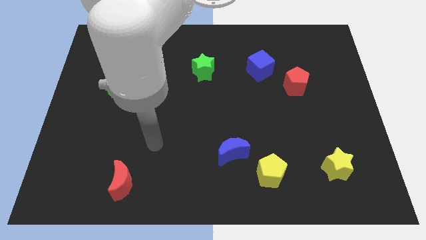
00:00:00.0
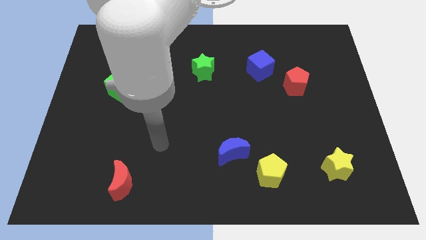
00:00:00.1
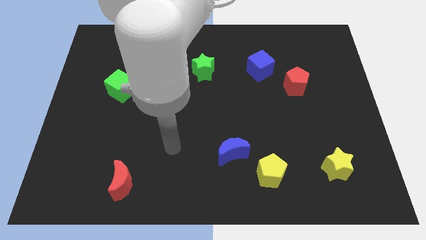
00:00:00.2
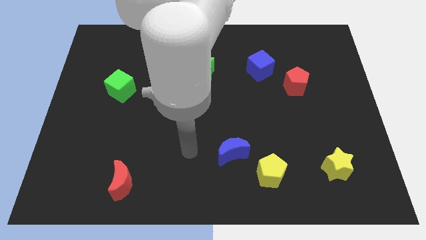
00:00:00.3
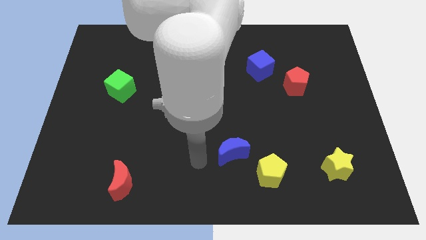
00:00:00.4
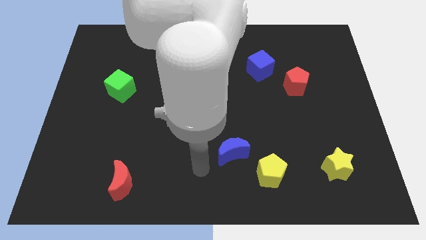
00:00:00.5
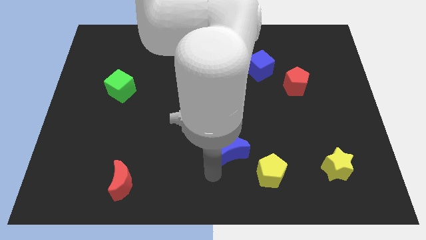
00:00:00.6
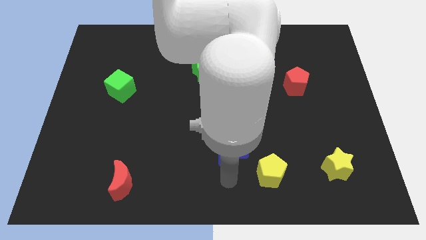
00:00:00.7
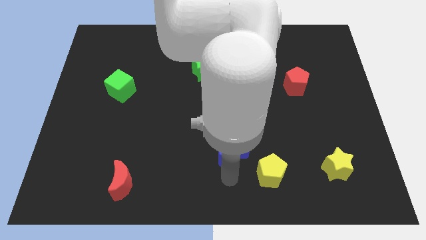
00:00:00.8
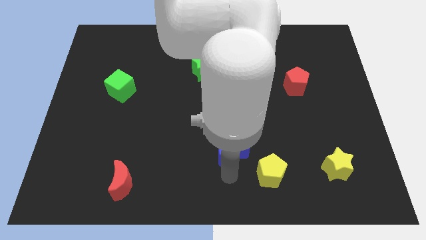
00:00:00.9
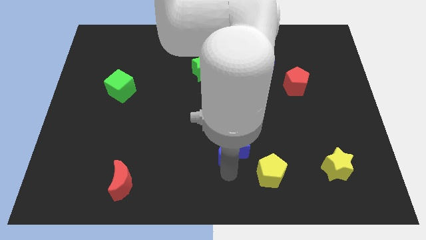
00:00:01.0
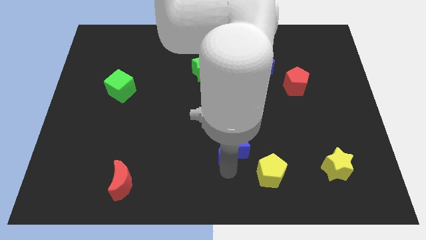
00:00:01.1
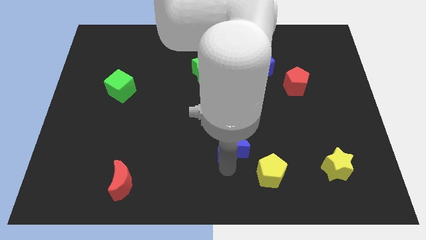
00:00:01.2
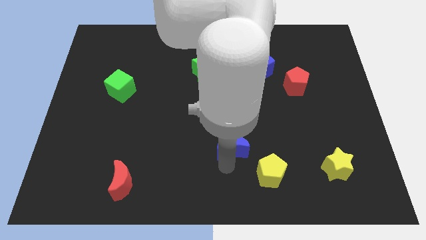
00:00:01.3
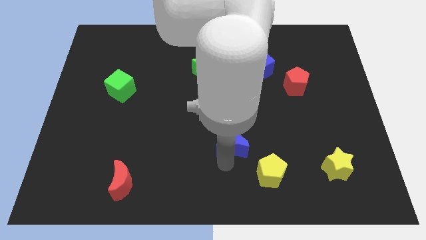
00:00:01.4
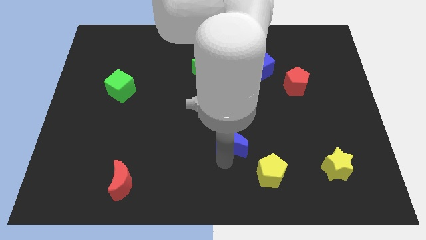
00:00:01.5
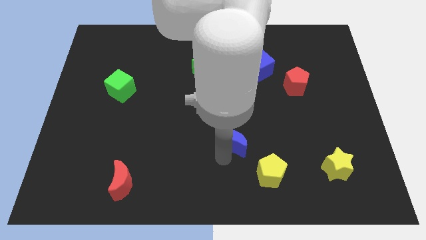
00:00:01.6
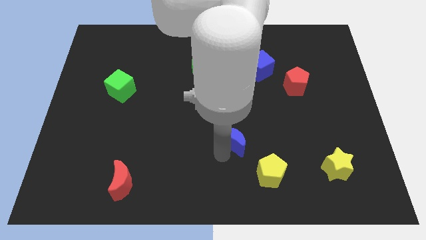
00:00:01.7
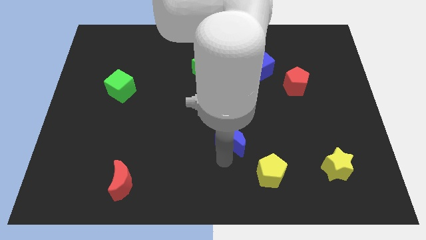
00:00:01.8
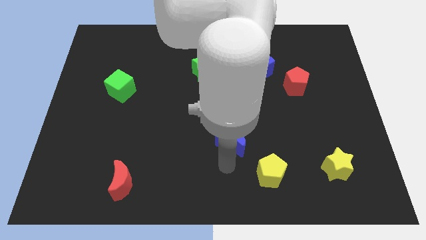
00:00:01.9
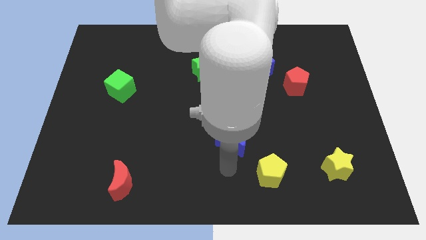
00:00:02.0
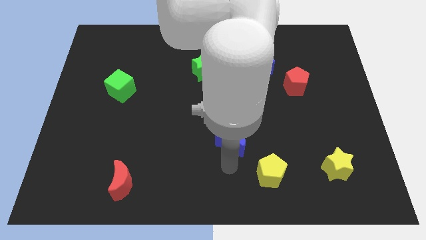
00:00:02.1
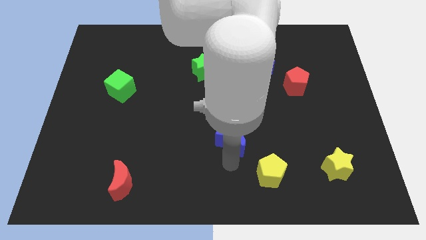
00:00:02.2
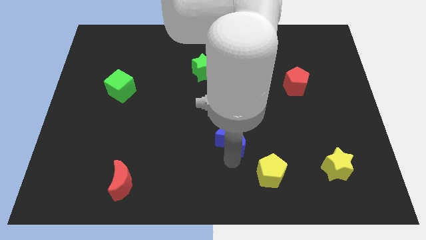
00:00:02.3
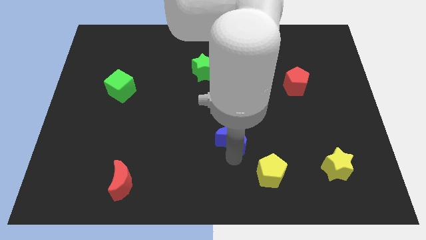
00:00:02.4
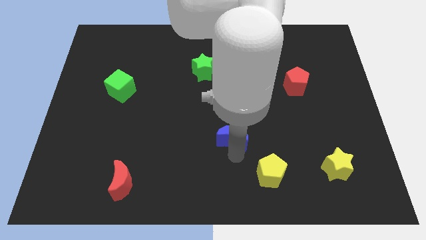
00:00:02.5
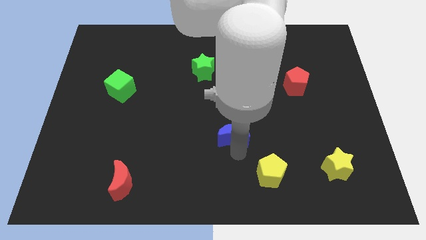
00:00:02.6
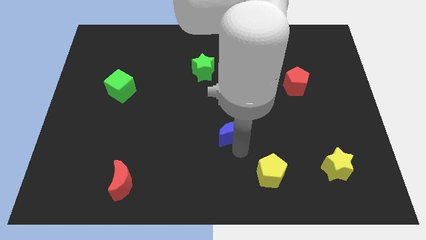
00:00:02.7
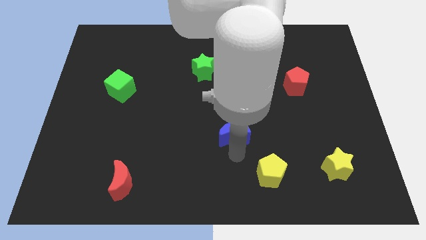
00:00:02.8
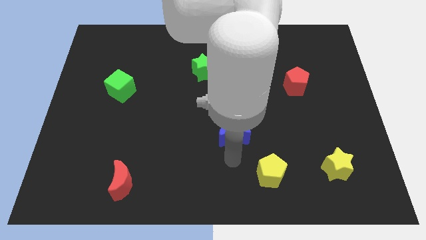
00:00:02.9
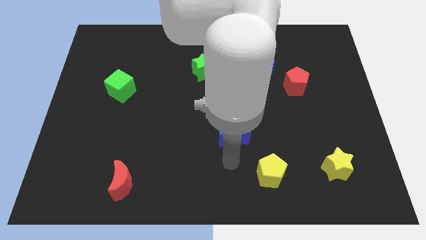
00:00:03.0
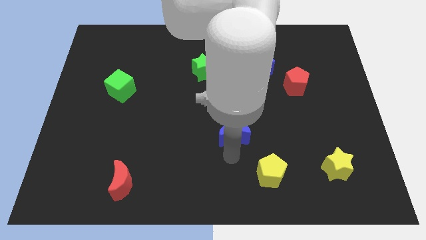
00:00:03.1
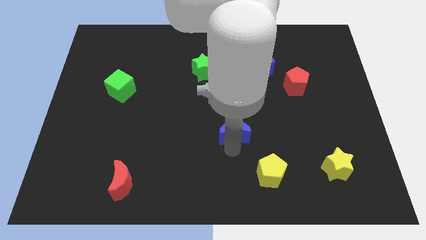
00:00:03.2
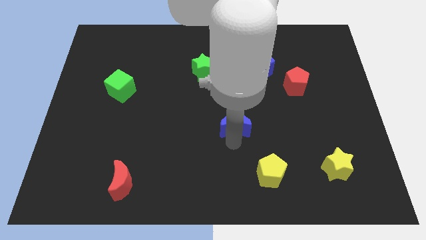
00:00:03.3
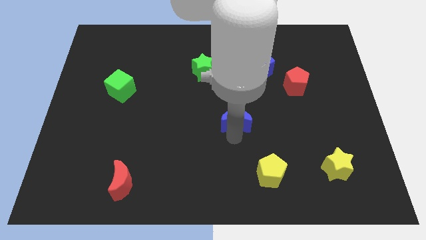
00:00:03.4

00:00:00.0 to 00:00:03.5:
slide the blue moon slightly upwards

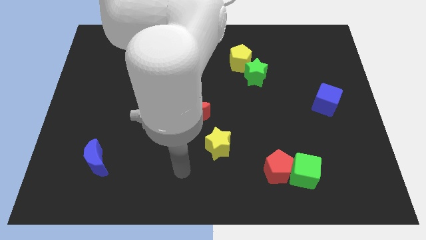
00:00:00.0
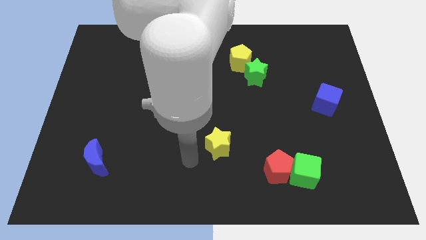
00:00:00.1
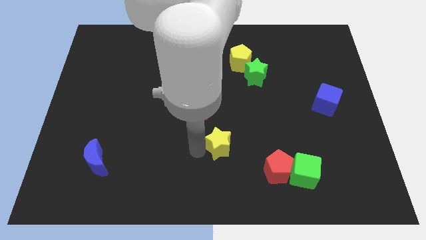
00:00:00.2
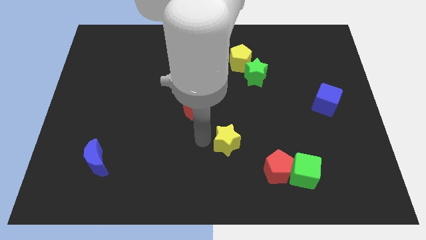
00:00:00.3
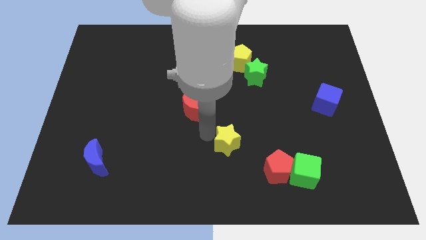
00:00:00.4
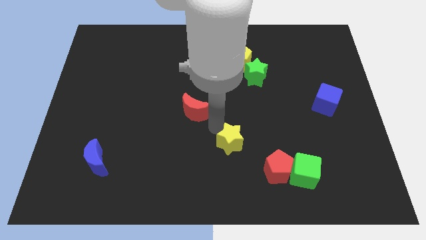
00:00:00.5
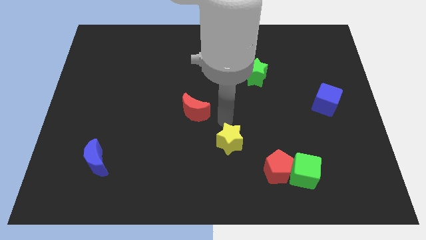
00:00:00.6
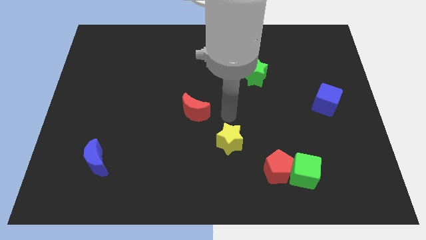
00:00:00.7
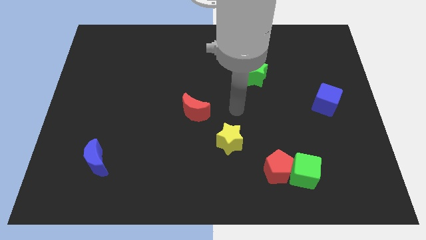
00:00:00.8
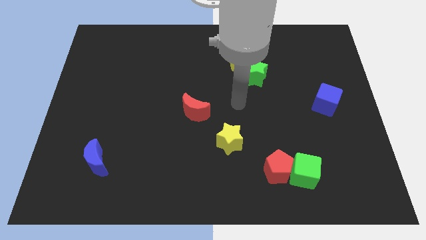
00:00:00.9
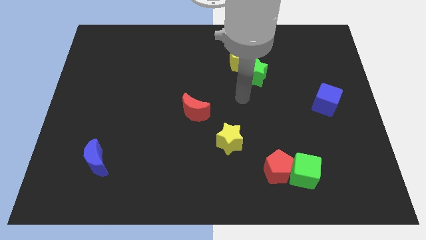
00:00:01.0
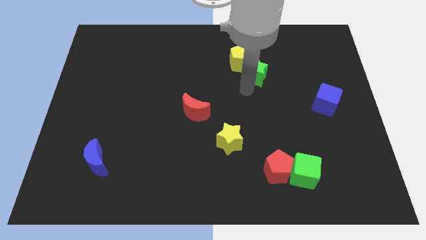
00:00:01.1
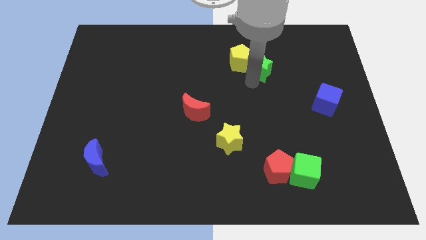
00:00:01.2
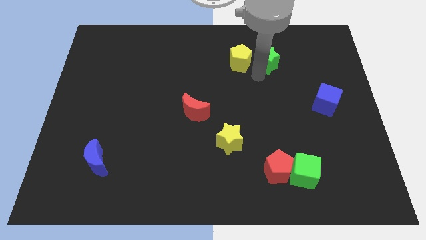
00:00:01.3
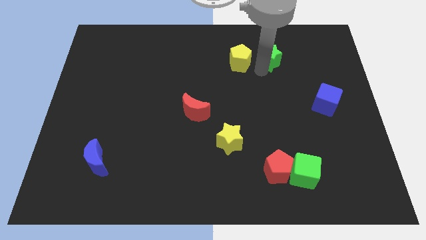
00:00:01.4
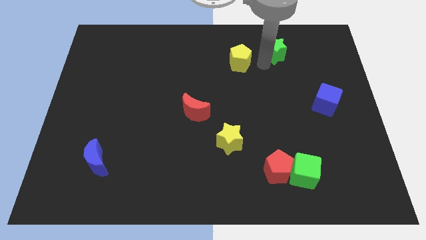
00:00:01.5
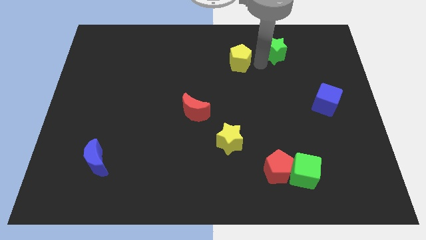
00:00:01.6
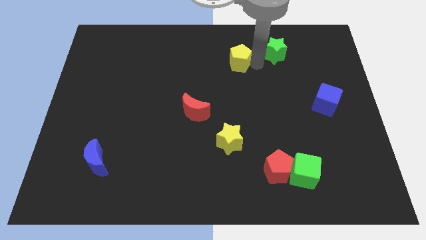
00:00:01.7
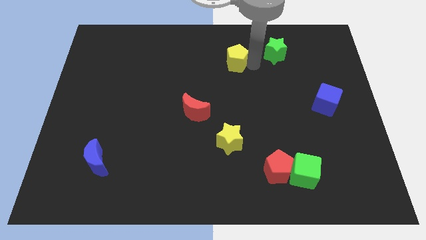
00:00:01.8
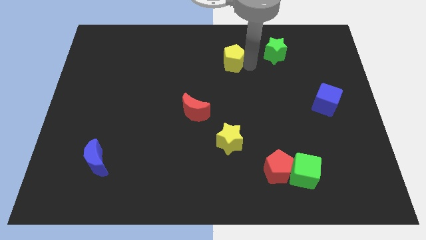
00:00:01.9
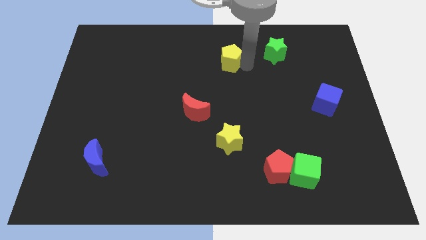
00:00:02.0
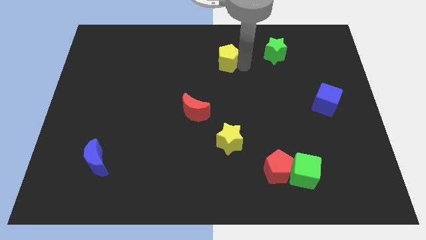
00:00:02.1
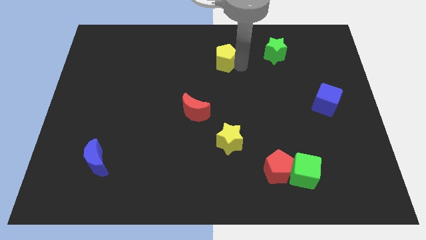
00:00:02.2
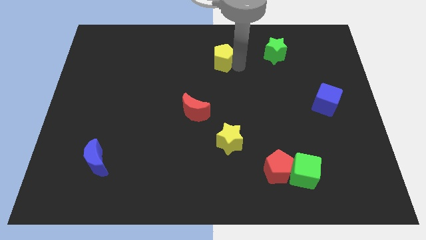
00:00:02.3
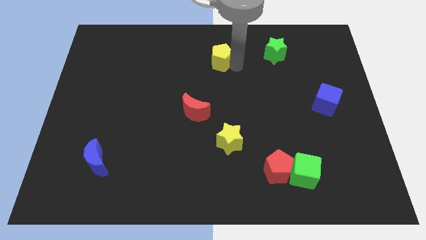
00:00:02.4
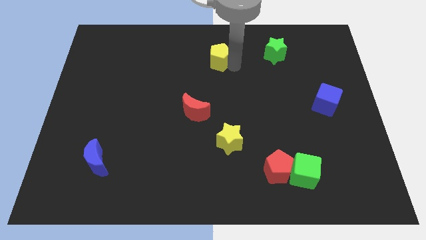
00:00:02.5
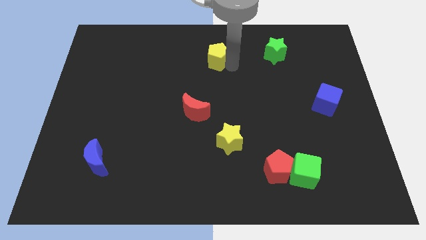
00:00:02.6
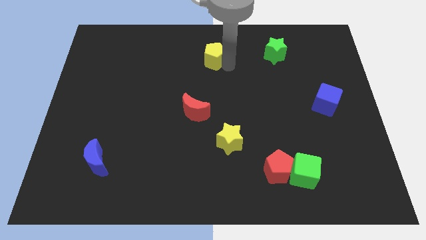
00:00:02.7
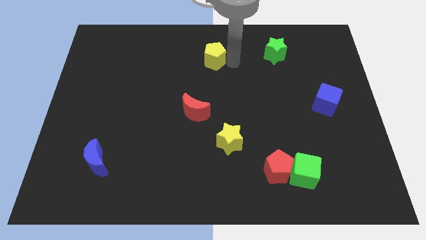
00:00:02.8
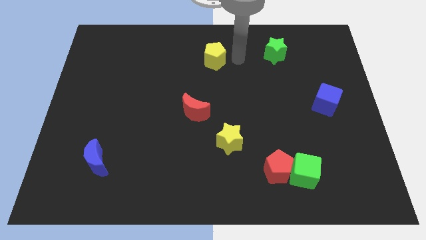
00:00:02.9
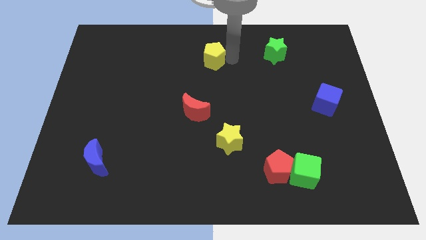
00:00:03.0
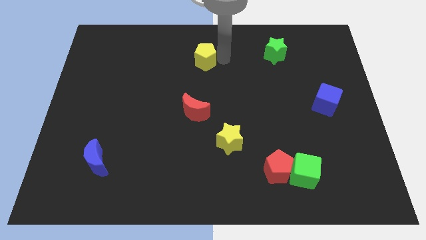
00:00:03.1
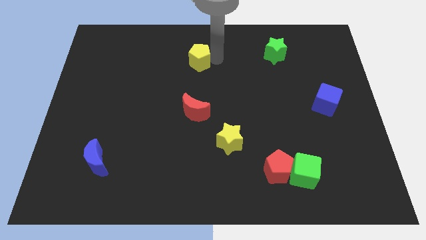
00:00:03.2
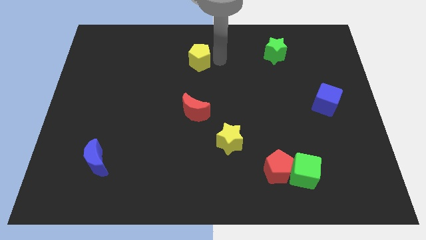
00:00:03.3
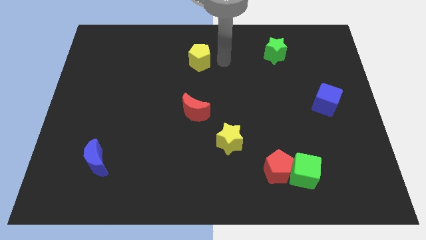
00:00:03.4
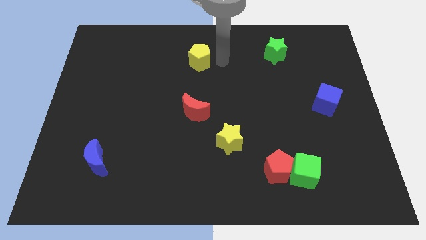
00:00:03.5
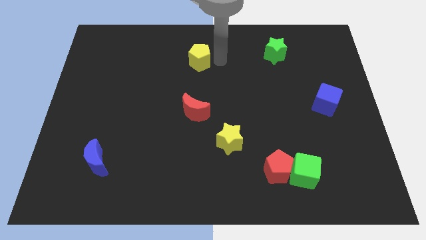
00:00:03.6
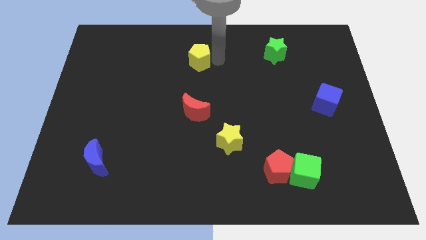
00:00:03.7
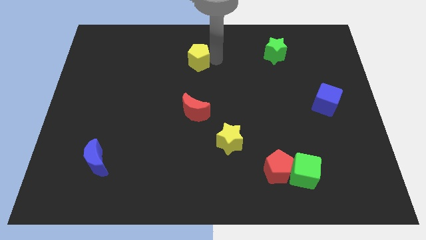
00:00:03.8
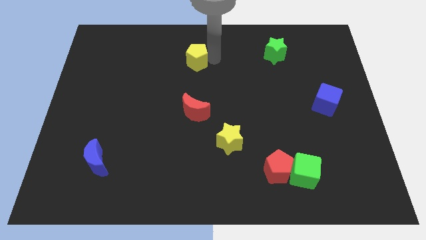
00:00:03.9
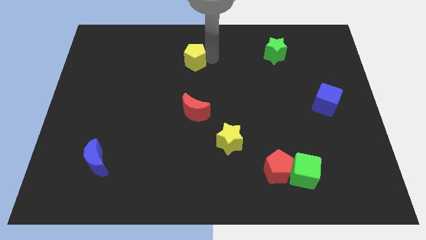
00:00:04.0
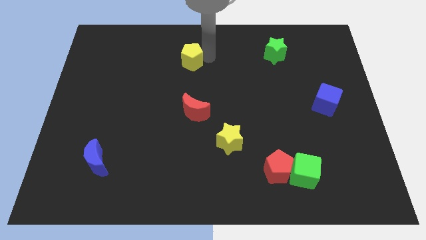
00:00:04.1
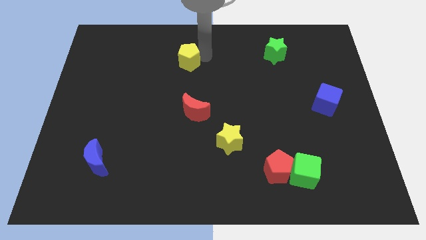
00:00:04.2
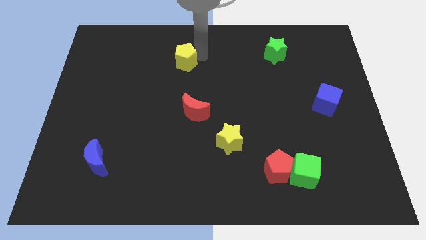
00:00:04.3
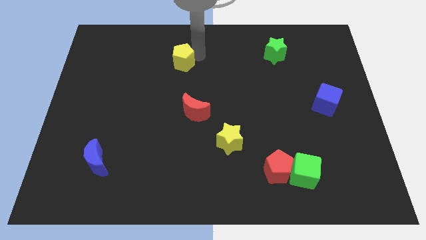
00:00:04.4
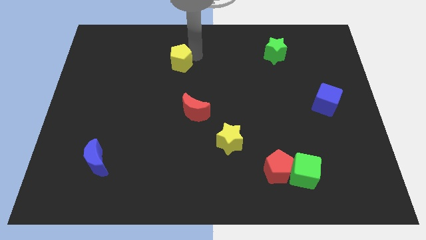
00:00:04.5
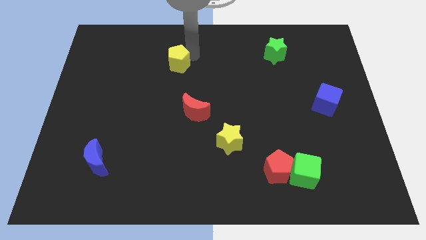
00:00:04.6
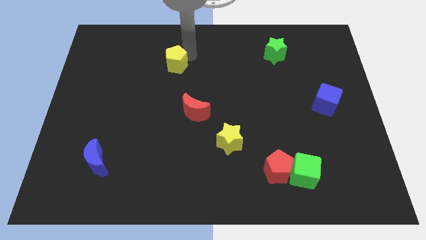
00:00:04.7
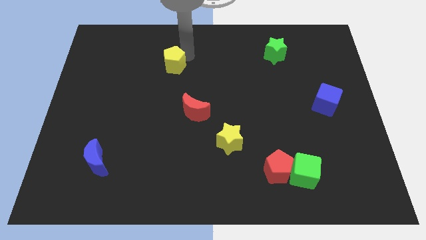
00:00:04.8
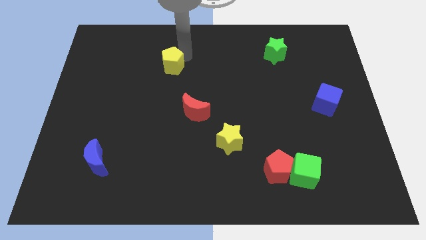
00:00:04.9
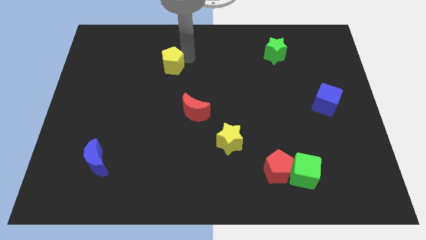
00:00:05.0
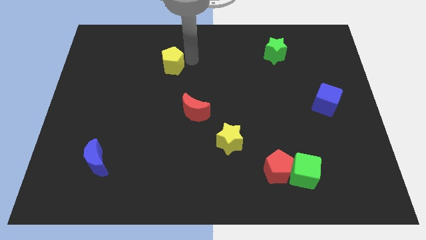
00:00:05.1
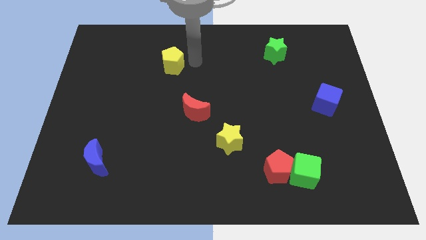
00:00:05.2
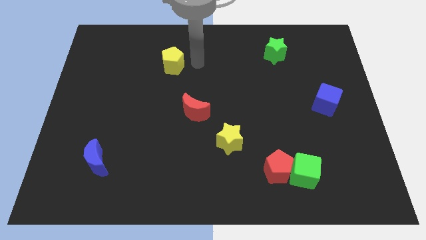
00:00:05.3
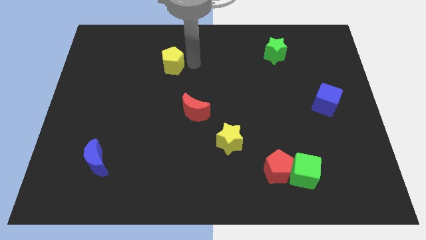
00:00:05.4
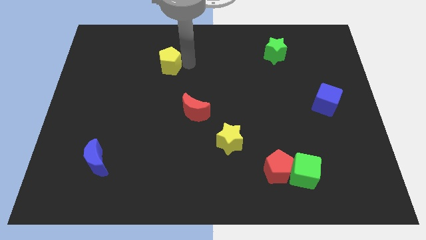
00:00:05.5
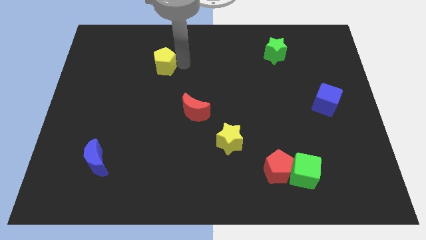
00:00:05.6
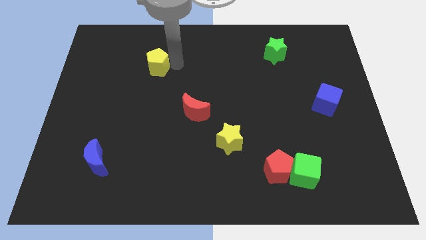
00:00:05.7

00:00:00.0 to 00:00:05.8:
slide the yellow pentagon left
